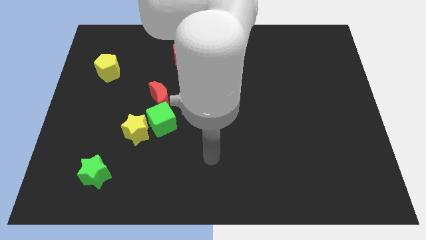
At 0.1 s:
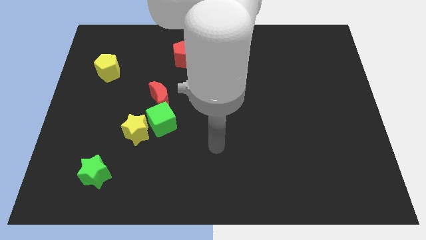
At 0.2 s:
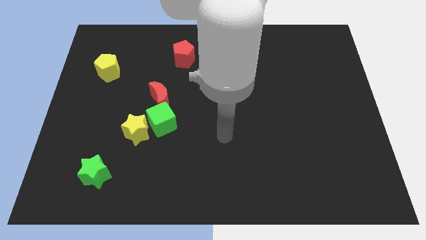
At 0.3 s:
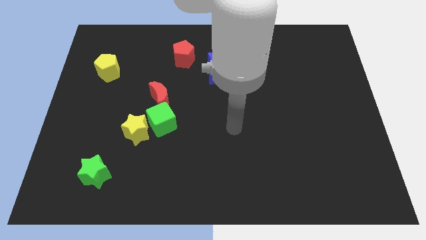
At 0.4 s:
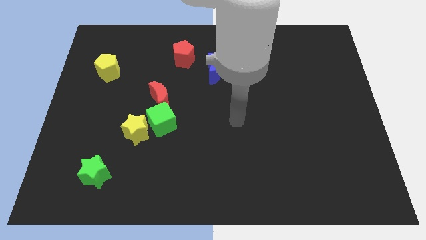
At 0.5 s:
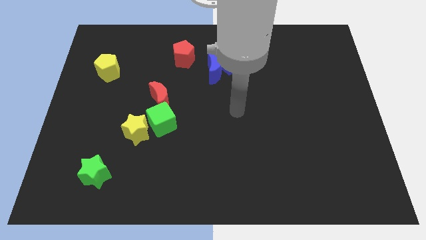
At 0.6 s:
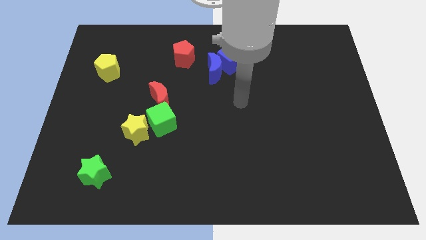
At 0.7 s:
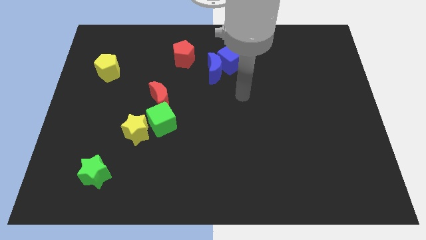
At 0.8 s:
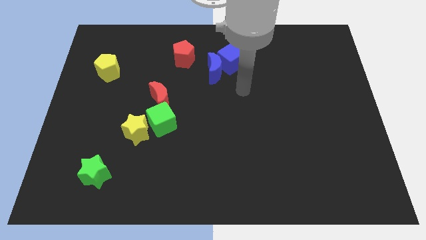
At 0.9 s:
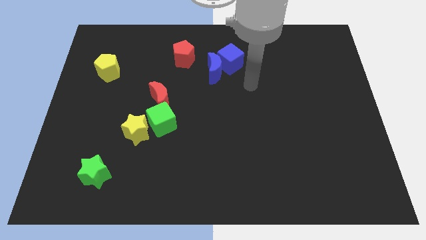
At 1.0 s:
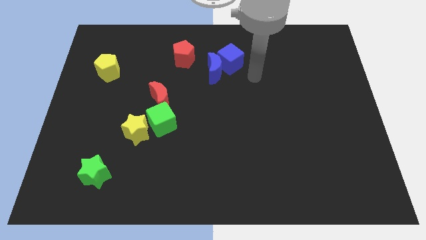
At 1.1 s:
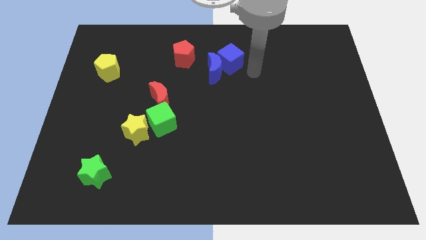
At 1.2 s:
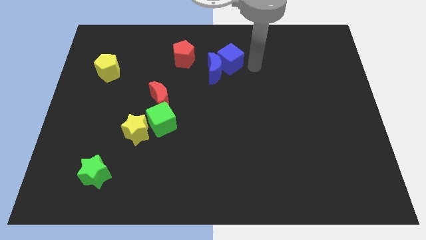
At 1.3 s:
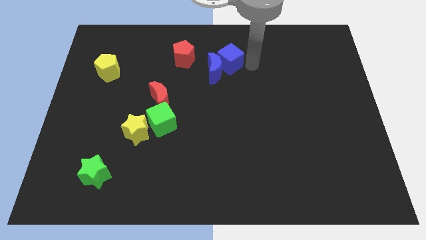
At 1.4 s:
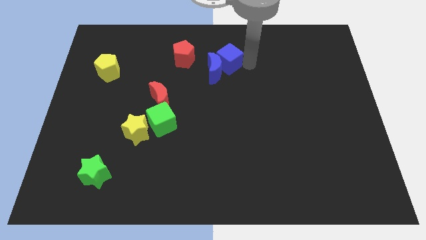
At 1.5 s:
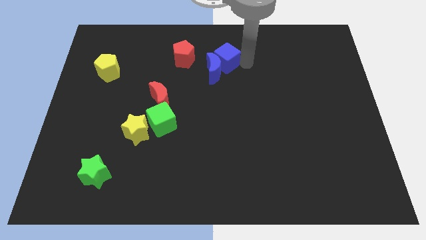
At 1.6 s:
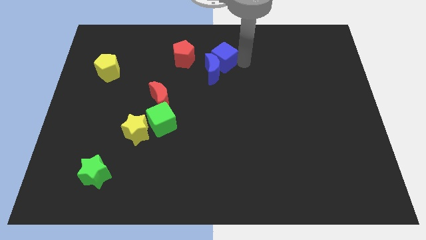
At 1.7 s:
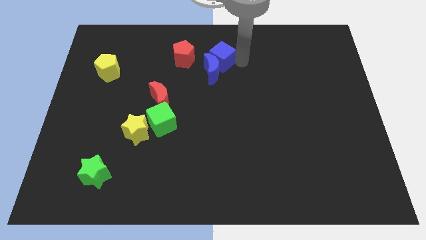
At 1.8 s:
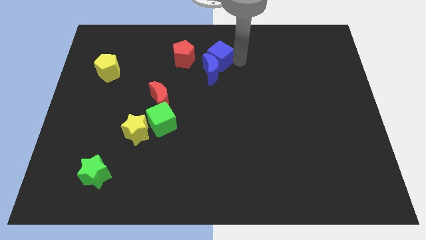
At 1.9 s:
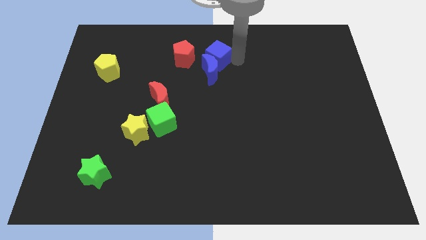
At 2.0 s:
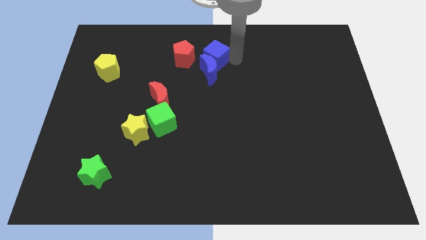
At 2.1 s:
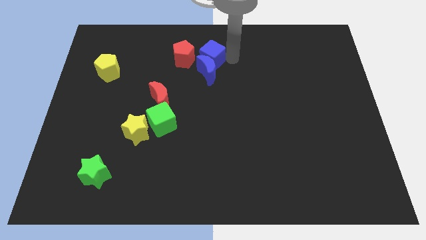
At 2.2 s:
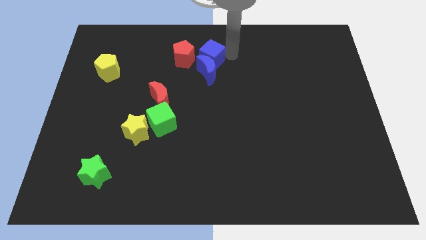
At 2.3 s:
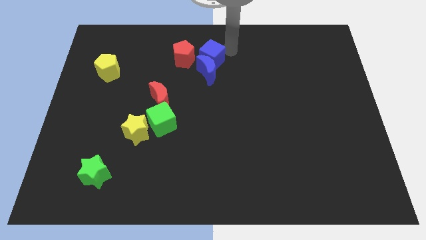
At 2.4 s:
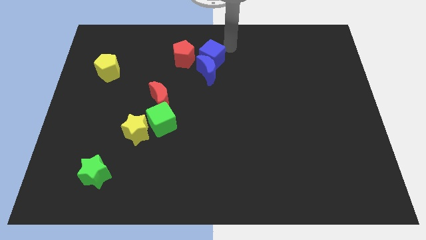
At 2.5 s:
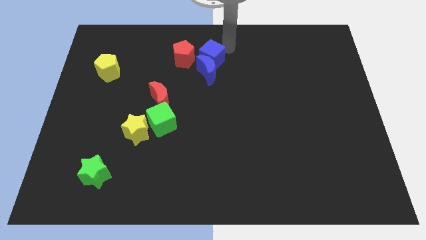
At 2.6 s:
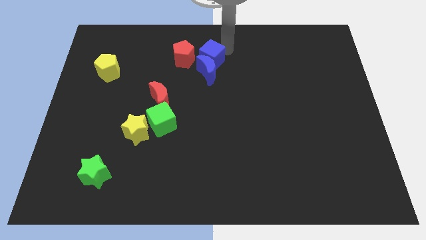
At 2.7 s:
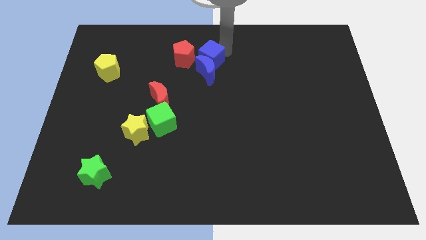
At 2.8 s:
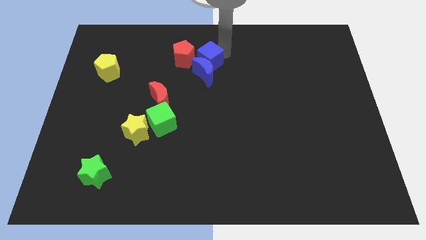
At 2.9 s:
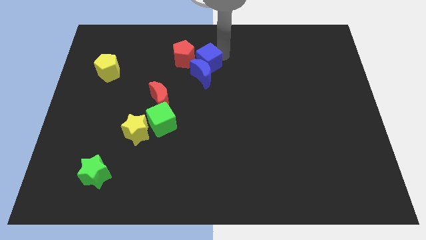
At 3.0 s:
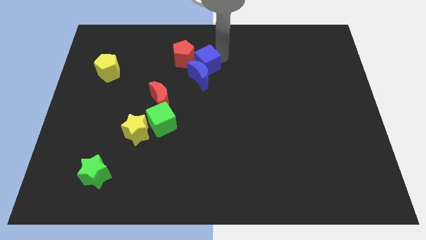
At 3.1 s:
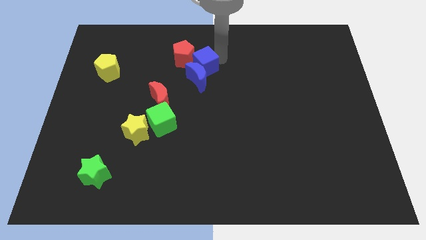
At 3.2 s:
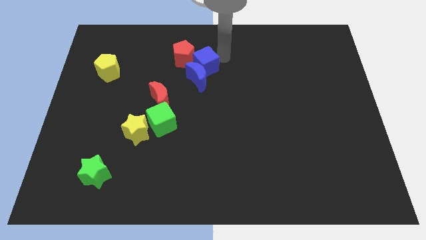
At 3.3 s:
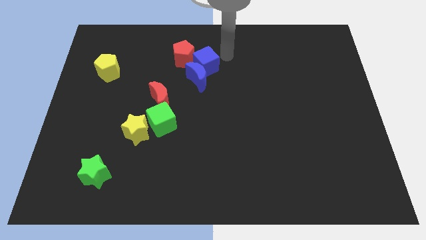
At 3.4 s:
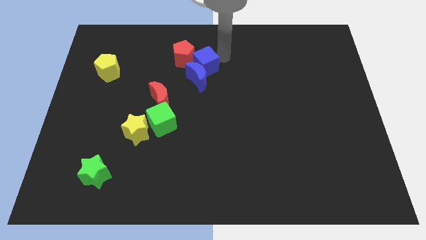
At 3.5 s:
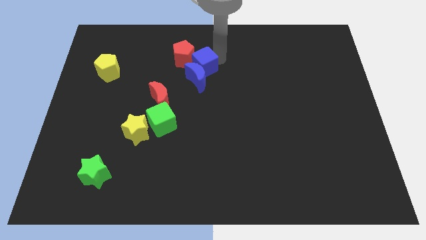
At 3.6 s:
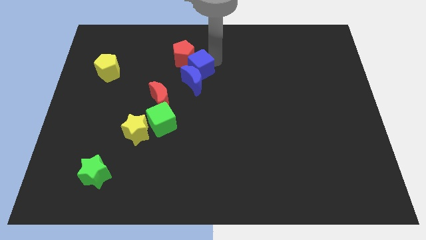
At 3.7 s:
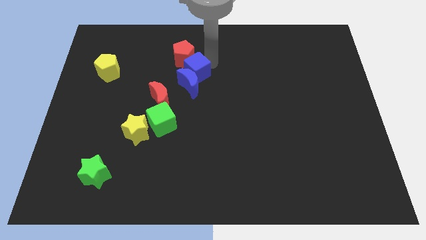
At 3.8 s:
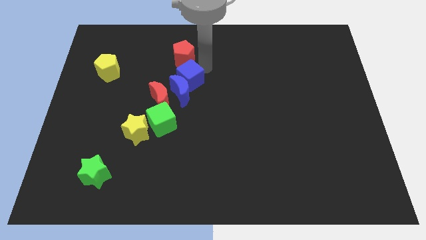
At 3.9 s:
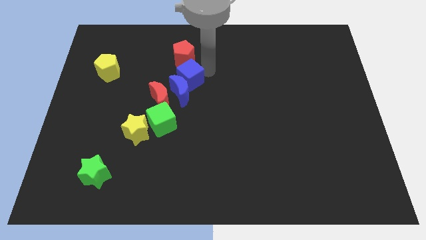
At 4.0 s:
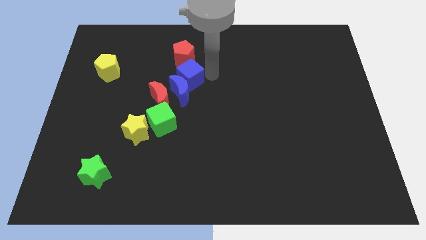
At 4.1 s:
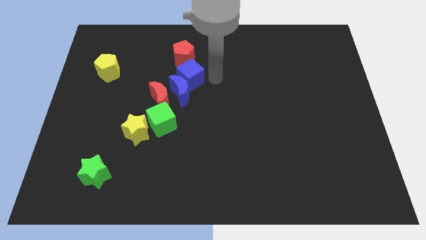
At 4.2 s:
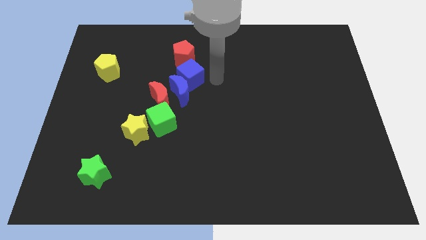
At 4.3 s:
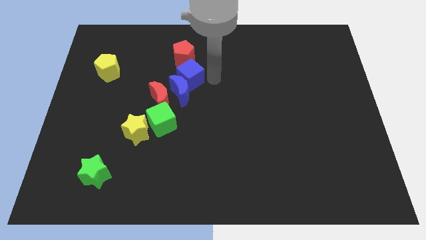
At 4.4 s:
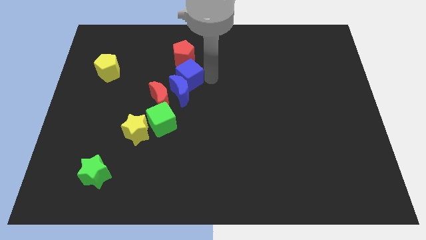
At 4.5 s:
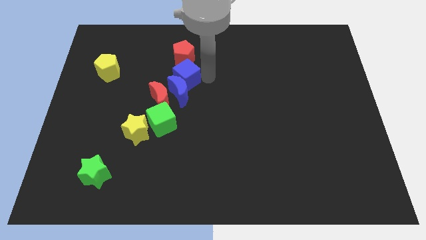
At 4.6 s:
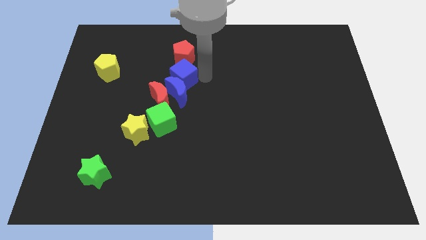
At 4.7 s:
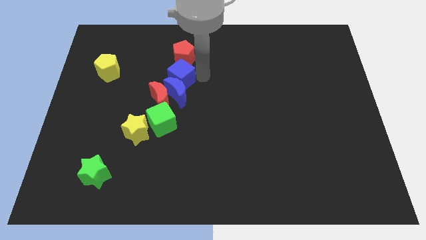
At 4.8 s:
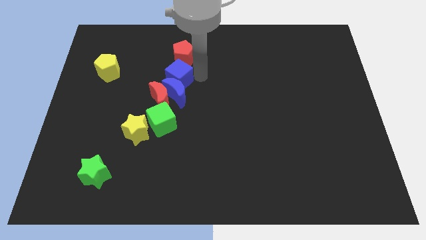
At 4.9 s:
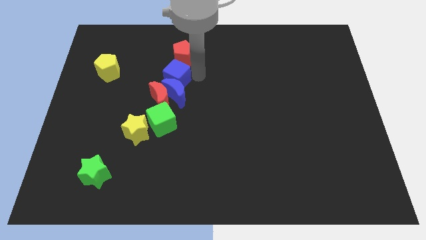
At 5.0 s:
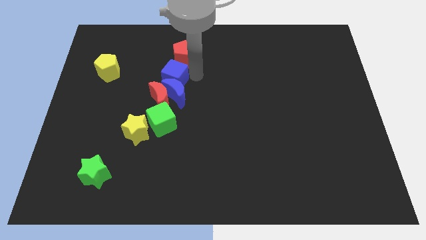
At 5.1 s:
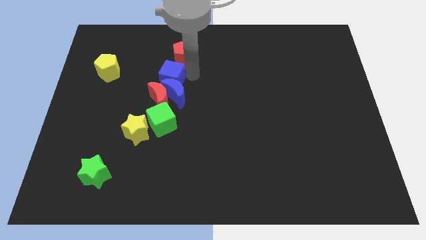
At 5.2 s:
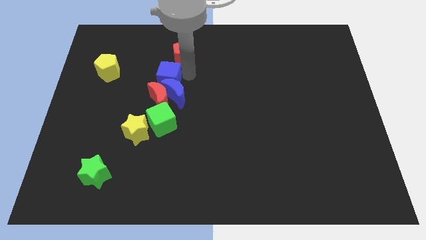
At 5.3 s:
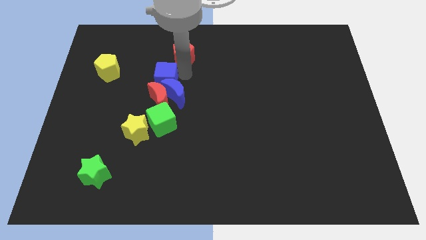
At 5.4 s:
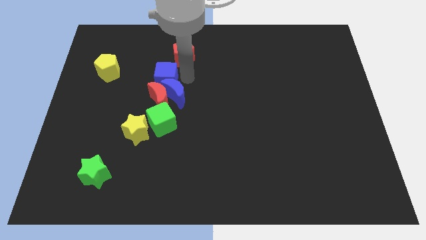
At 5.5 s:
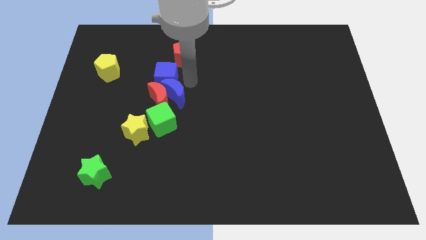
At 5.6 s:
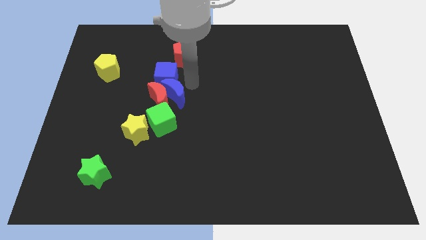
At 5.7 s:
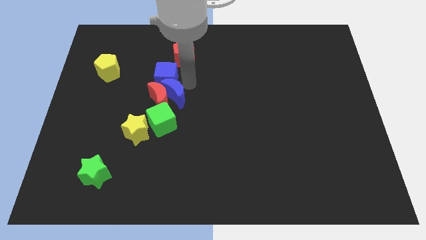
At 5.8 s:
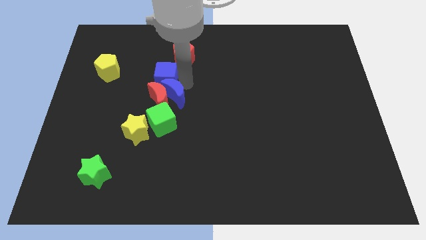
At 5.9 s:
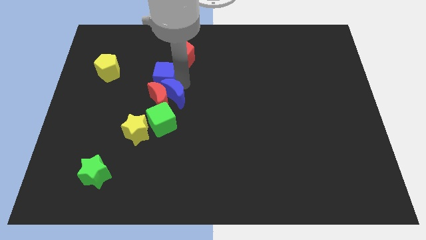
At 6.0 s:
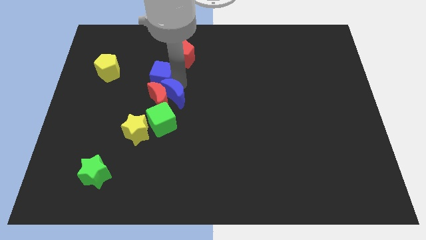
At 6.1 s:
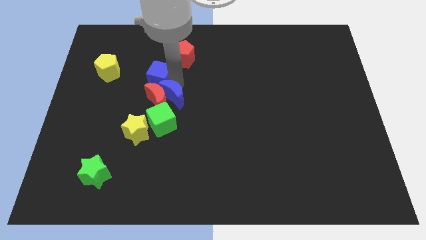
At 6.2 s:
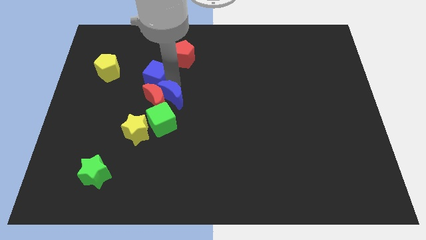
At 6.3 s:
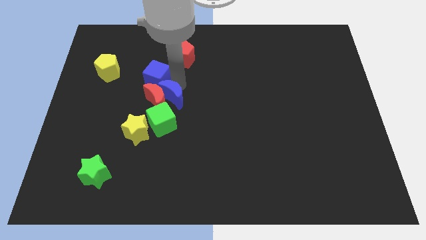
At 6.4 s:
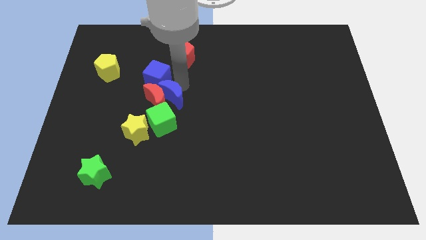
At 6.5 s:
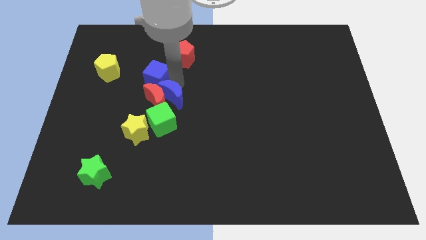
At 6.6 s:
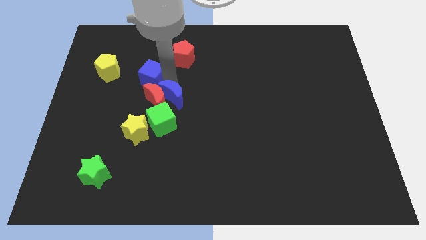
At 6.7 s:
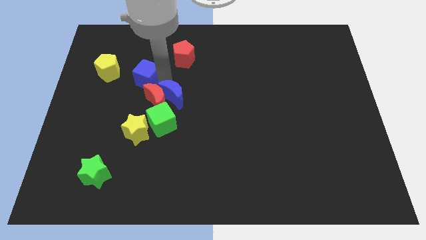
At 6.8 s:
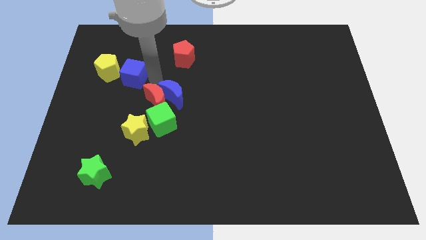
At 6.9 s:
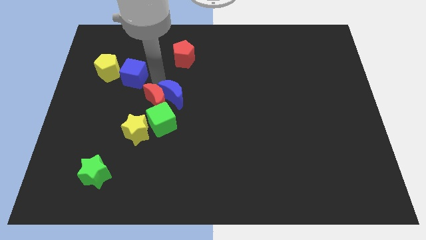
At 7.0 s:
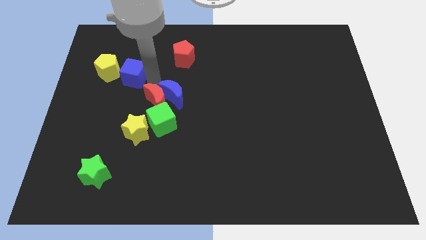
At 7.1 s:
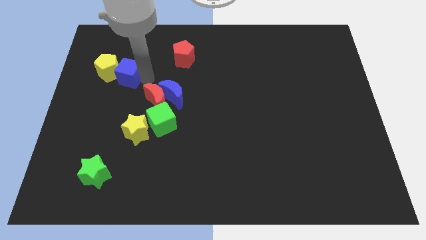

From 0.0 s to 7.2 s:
move the blue cube next to the yellow pentagon

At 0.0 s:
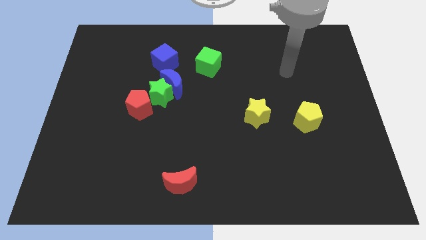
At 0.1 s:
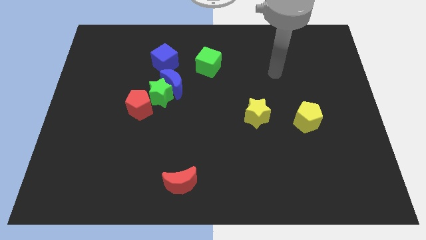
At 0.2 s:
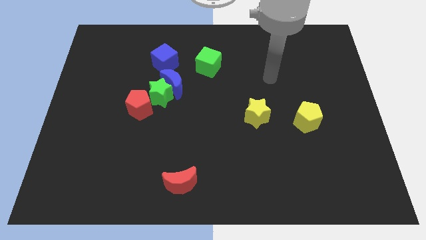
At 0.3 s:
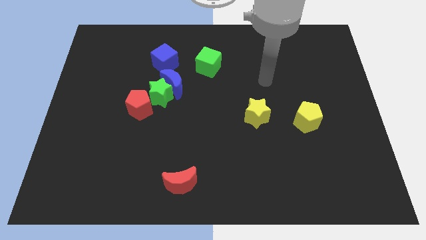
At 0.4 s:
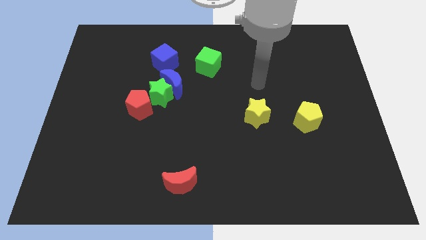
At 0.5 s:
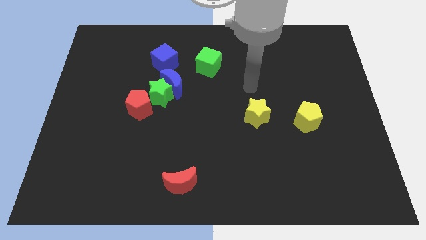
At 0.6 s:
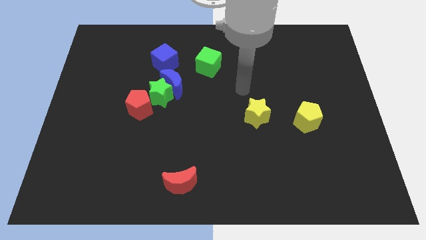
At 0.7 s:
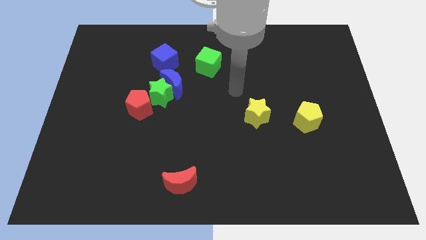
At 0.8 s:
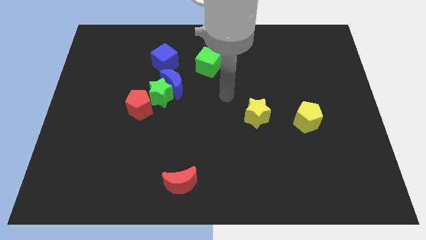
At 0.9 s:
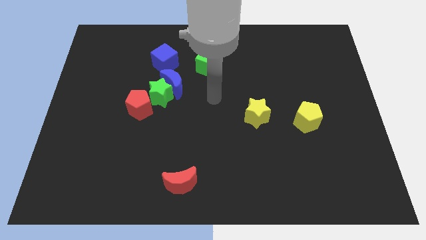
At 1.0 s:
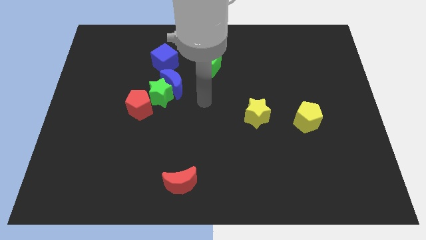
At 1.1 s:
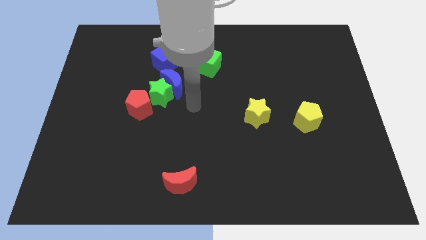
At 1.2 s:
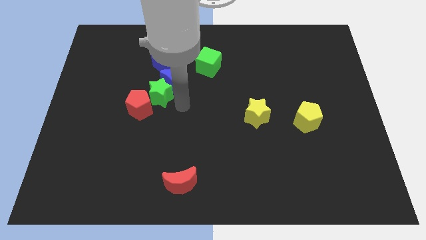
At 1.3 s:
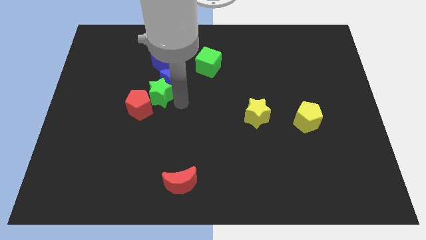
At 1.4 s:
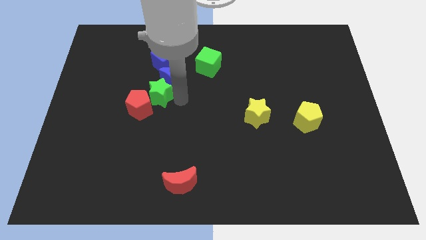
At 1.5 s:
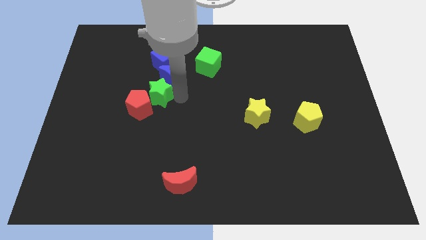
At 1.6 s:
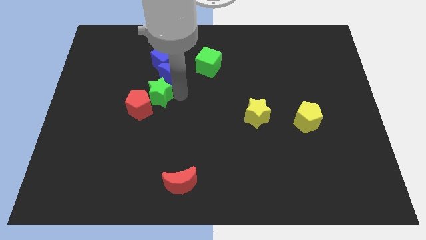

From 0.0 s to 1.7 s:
put the blue moon to the blue cube
